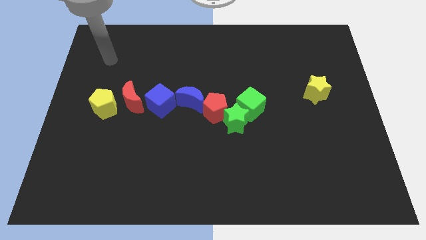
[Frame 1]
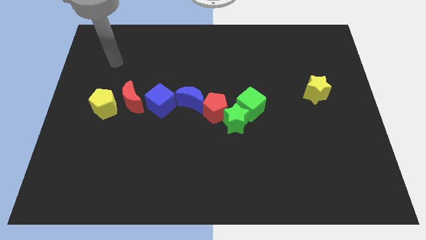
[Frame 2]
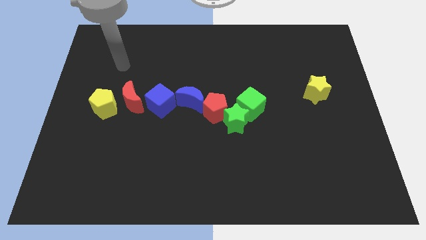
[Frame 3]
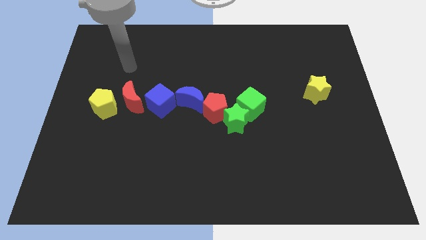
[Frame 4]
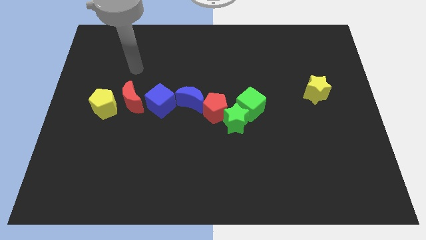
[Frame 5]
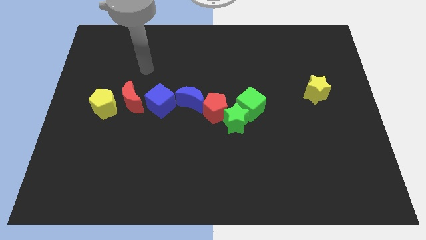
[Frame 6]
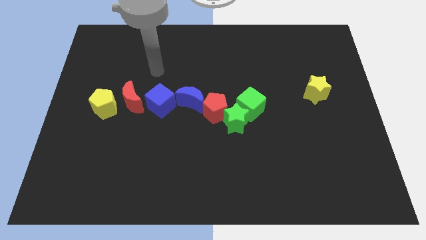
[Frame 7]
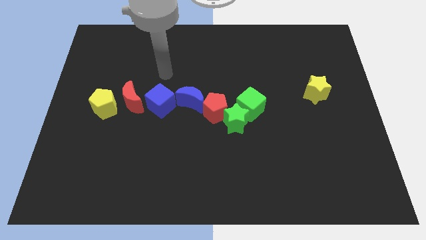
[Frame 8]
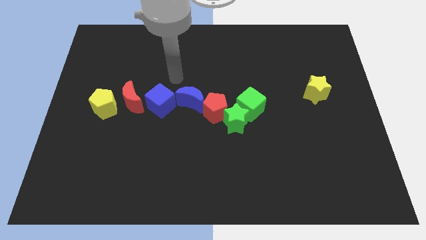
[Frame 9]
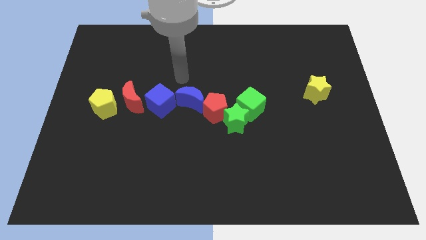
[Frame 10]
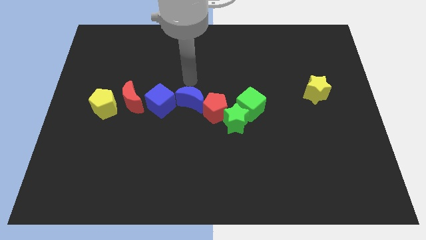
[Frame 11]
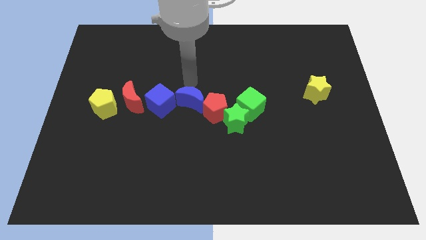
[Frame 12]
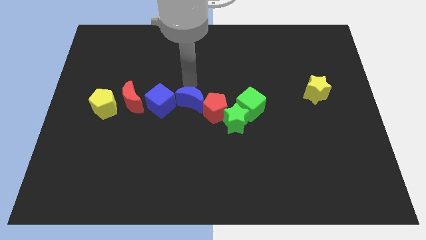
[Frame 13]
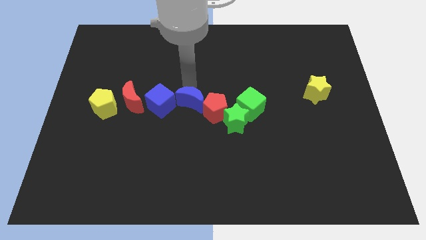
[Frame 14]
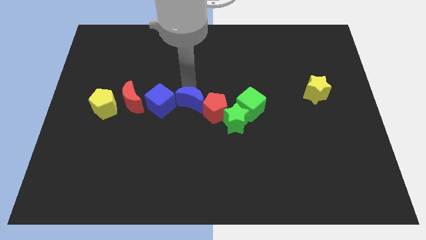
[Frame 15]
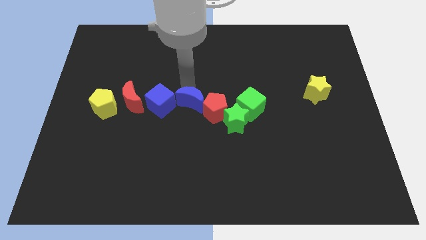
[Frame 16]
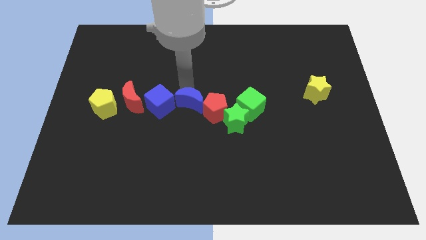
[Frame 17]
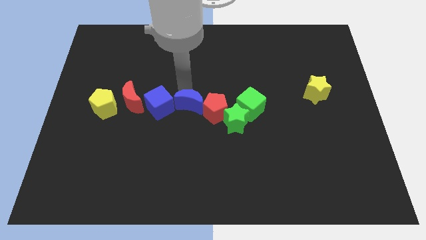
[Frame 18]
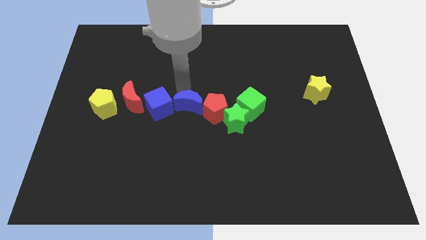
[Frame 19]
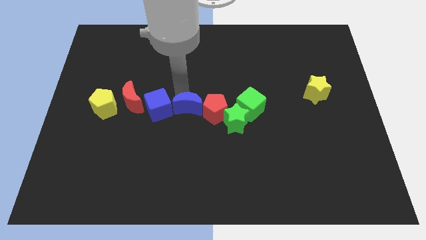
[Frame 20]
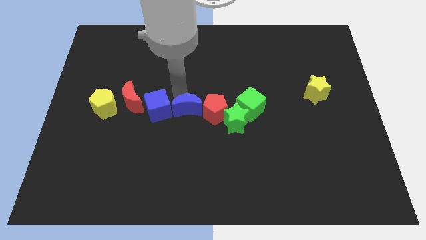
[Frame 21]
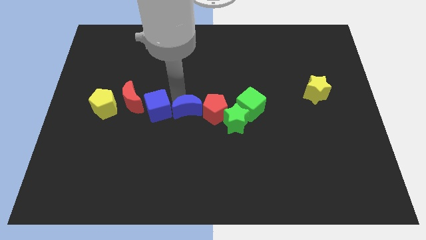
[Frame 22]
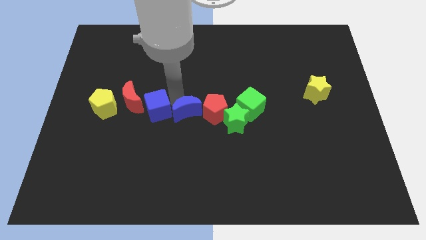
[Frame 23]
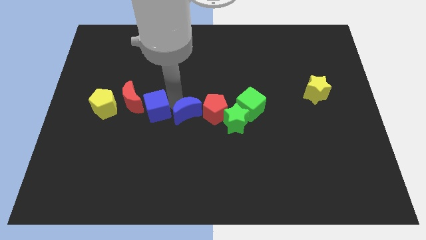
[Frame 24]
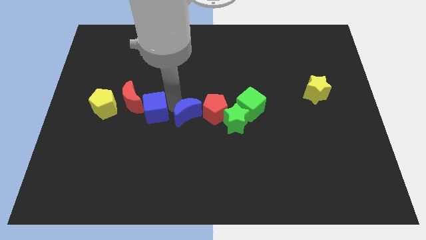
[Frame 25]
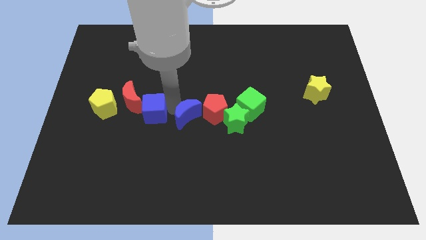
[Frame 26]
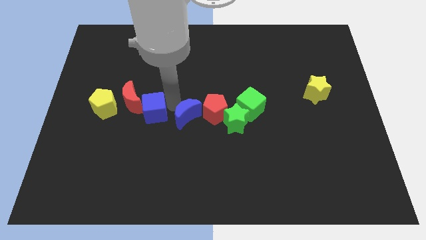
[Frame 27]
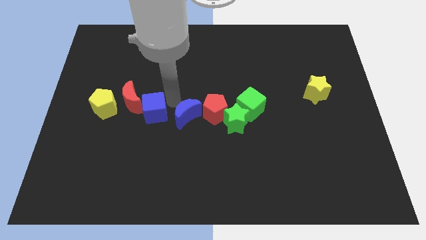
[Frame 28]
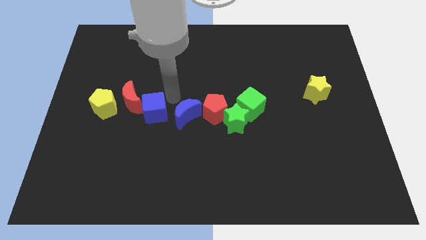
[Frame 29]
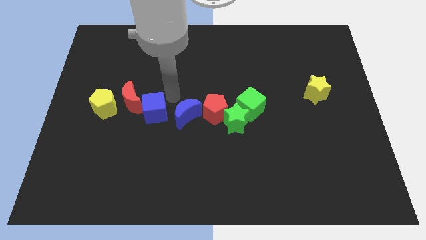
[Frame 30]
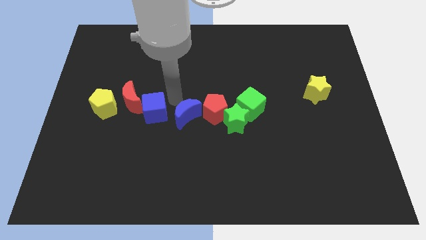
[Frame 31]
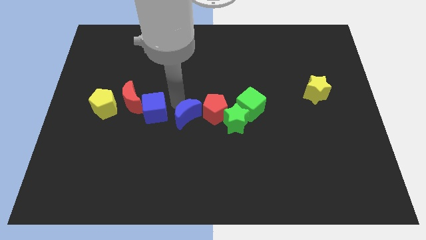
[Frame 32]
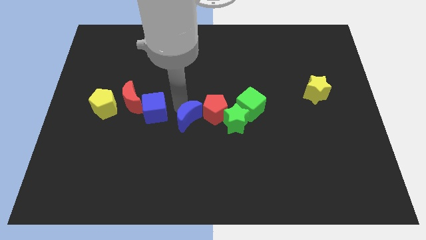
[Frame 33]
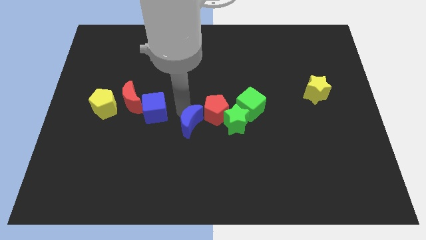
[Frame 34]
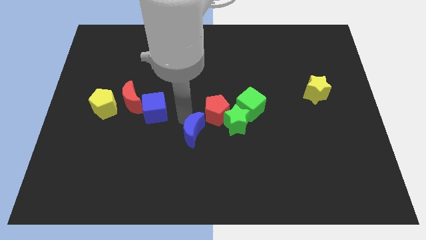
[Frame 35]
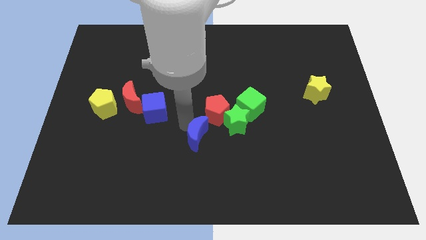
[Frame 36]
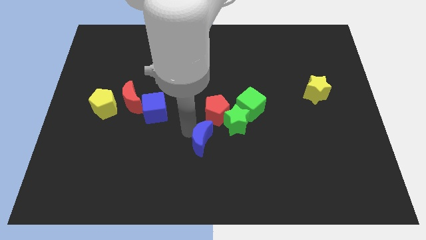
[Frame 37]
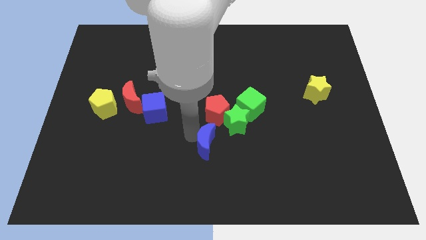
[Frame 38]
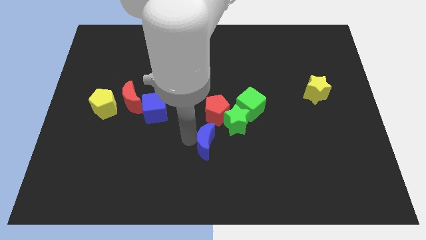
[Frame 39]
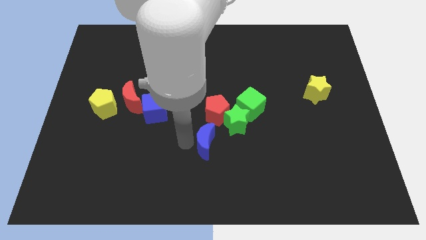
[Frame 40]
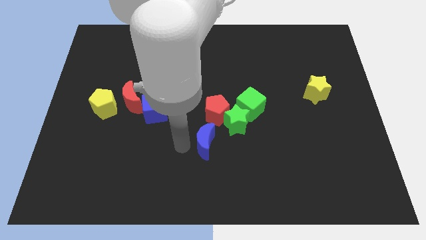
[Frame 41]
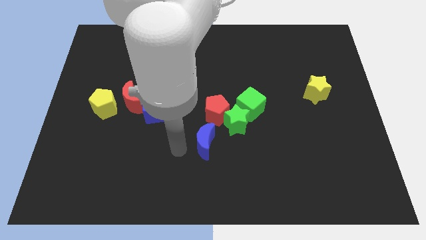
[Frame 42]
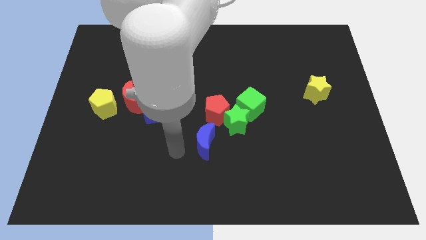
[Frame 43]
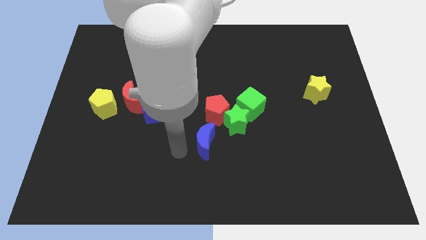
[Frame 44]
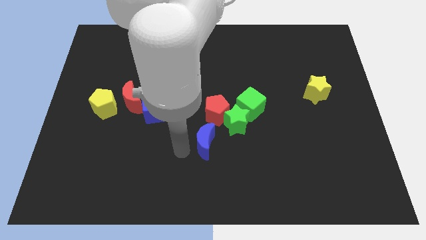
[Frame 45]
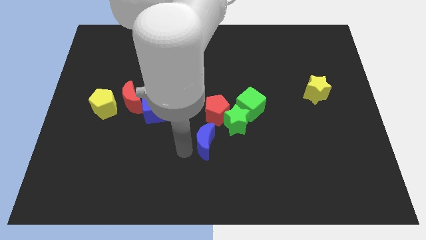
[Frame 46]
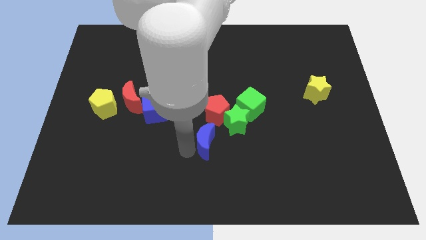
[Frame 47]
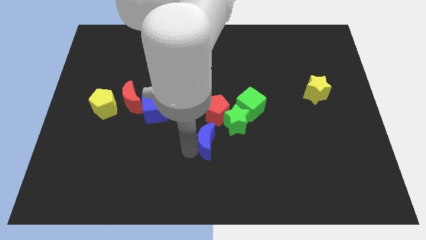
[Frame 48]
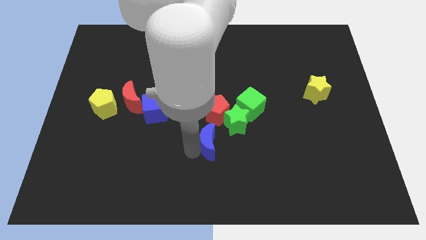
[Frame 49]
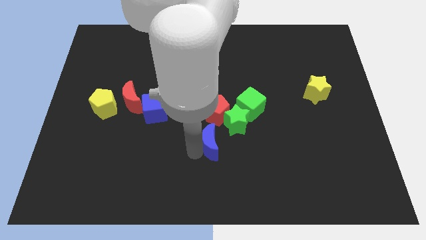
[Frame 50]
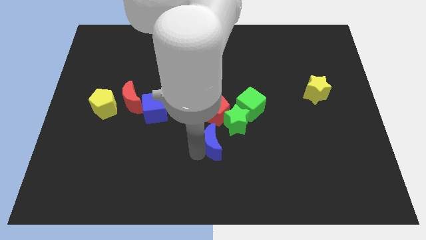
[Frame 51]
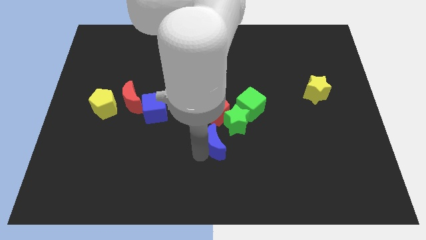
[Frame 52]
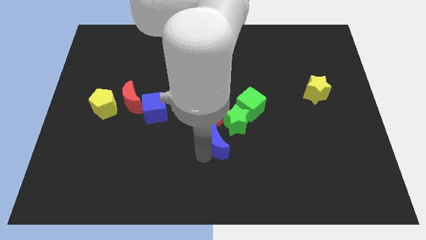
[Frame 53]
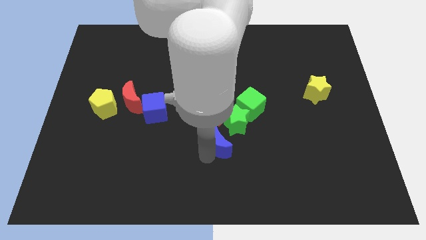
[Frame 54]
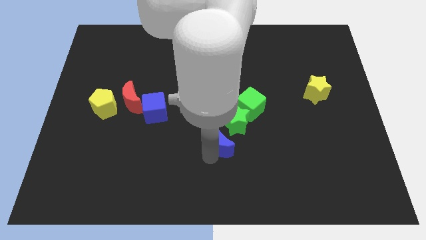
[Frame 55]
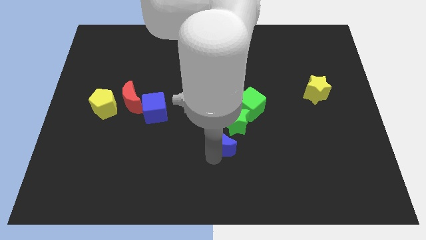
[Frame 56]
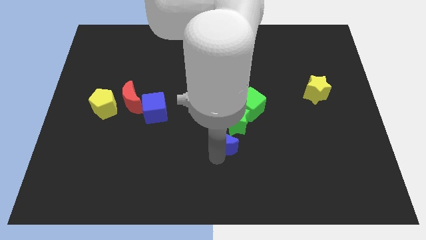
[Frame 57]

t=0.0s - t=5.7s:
push the blue moon to the green star

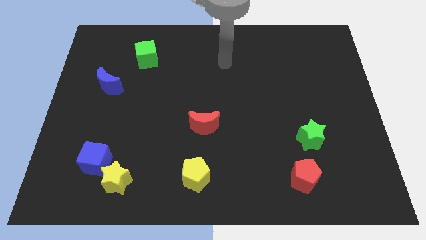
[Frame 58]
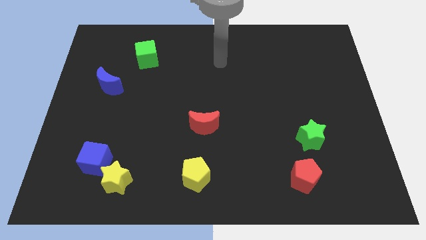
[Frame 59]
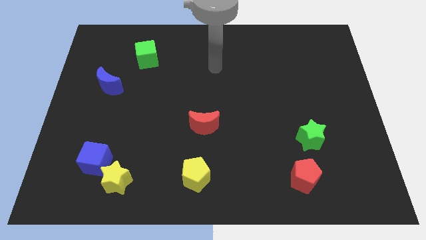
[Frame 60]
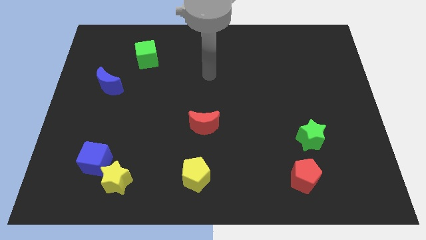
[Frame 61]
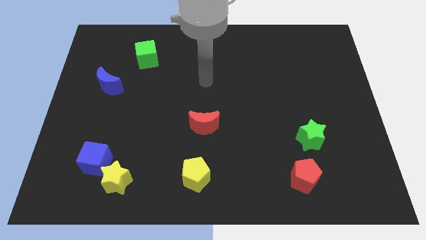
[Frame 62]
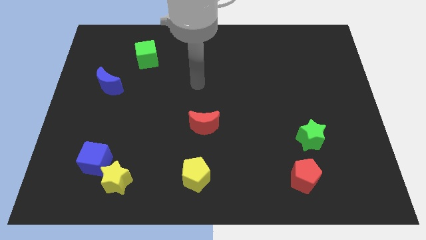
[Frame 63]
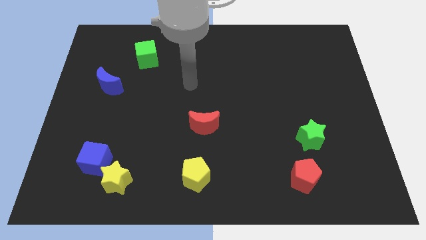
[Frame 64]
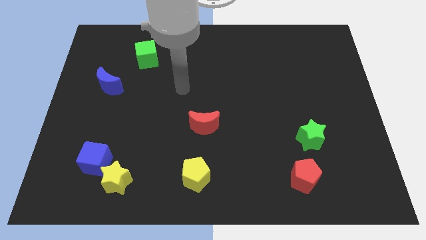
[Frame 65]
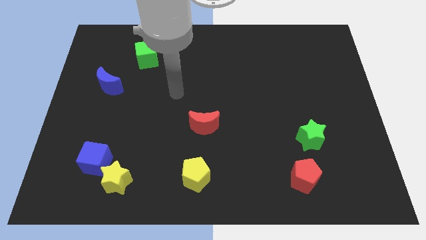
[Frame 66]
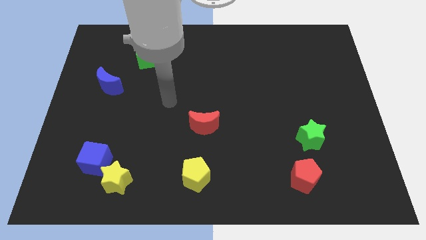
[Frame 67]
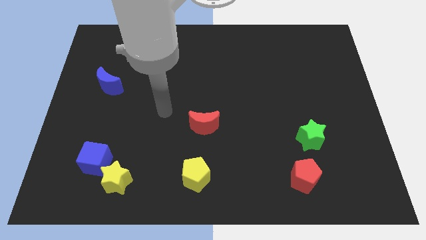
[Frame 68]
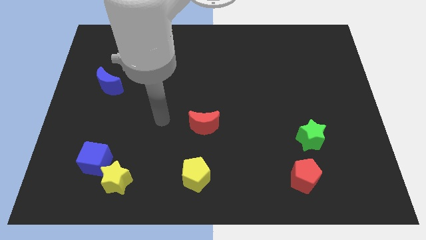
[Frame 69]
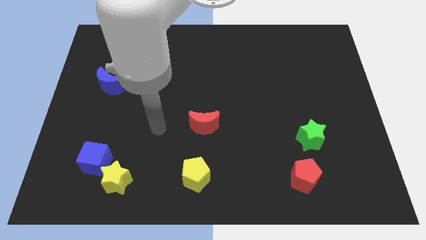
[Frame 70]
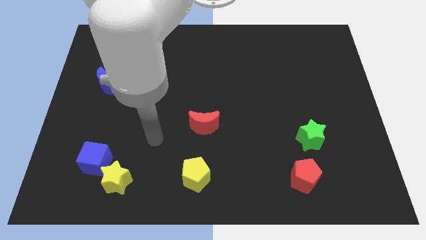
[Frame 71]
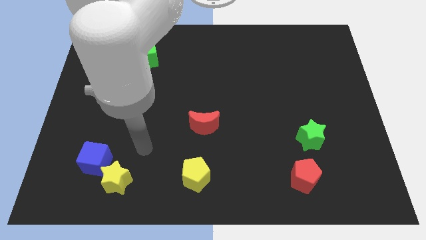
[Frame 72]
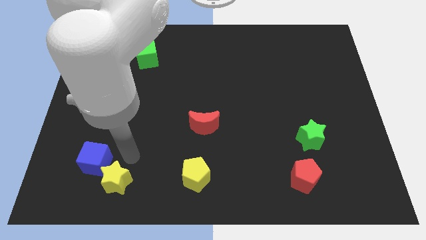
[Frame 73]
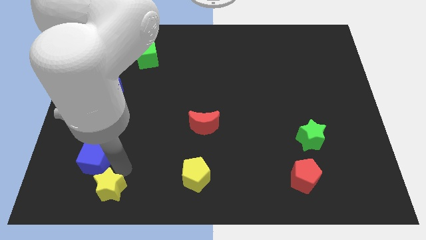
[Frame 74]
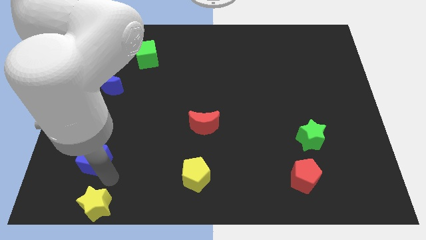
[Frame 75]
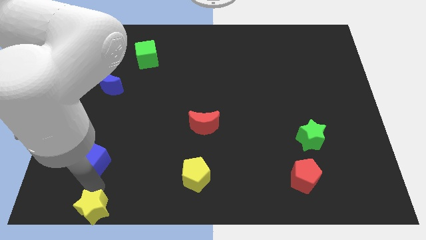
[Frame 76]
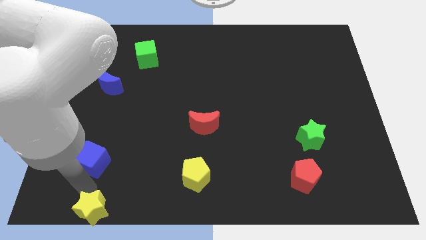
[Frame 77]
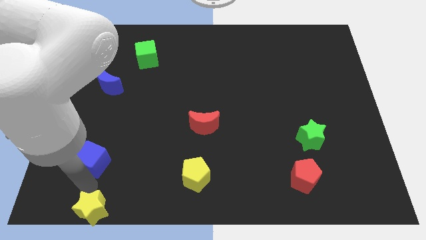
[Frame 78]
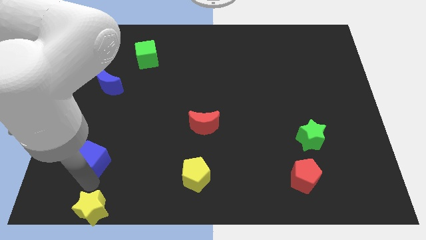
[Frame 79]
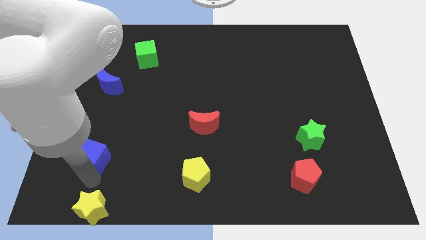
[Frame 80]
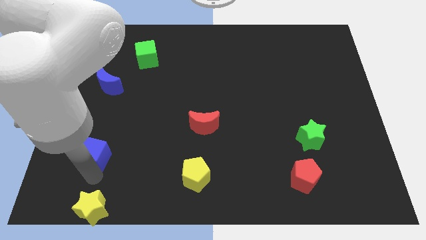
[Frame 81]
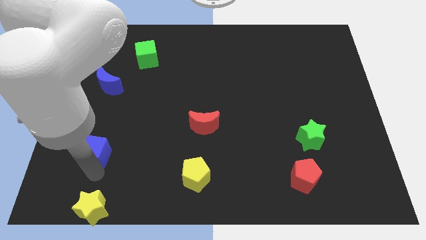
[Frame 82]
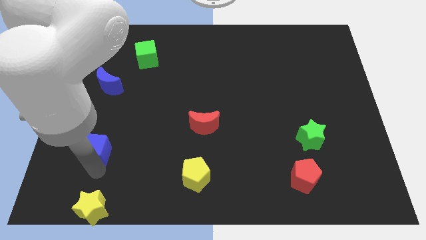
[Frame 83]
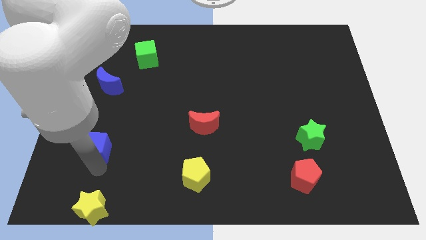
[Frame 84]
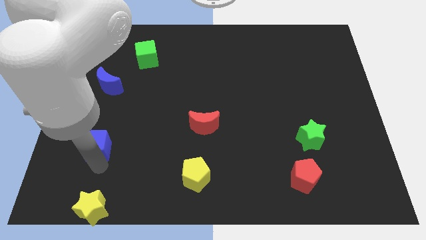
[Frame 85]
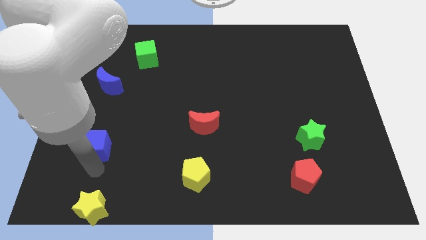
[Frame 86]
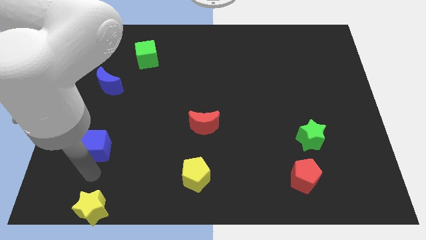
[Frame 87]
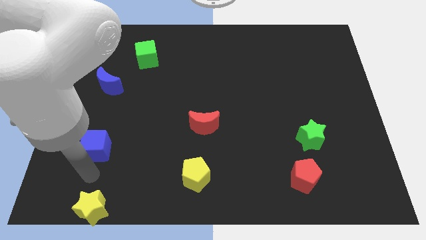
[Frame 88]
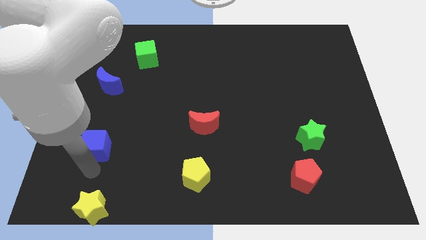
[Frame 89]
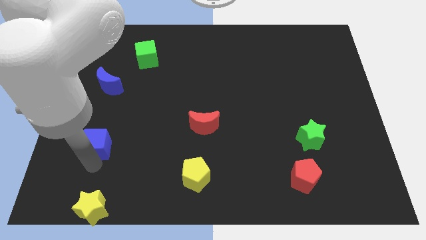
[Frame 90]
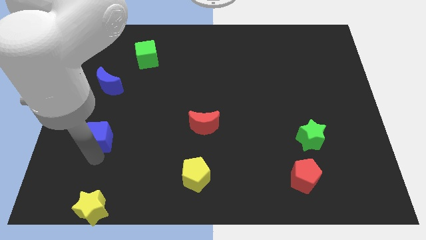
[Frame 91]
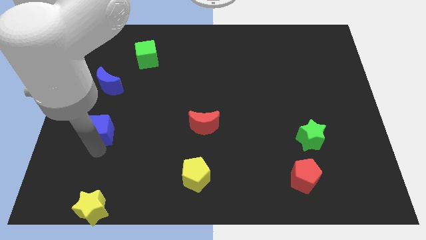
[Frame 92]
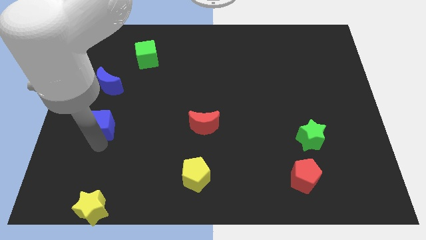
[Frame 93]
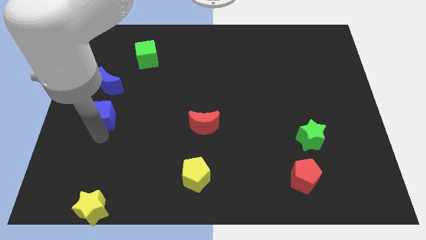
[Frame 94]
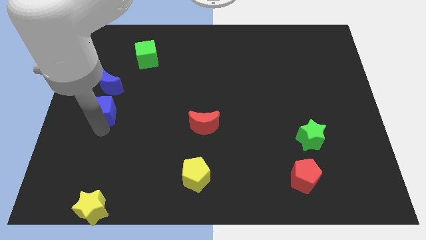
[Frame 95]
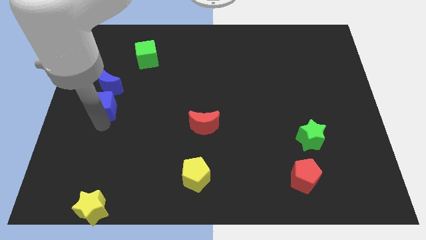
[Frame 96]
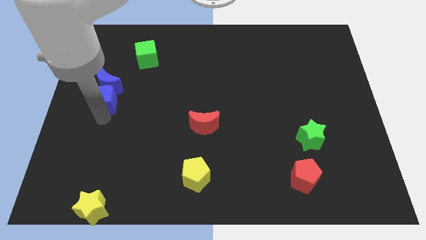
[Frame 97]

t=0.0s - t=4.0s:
slide the blue cube towards the blue moon
